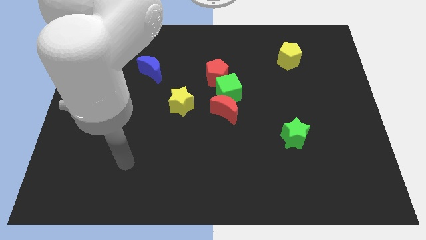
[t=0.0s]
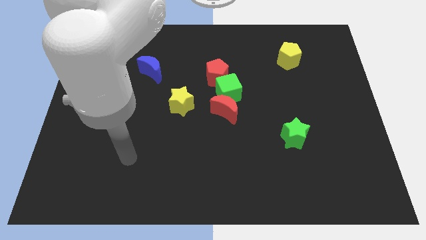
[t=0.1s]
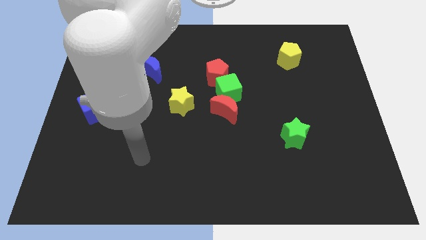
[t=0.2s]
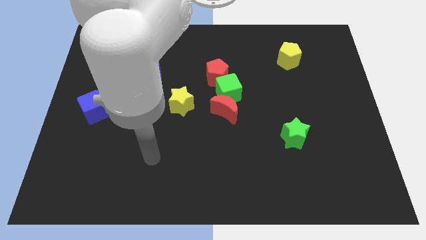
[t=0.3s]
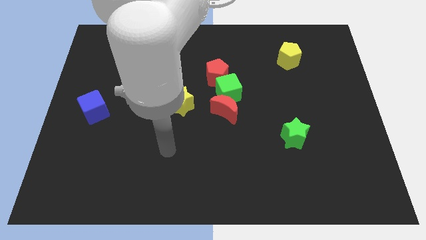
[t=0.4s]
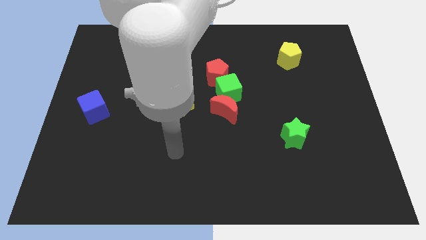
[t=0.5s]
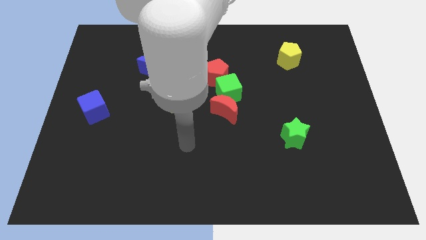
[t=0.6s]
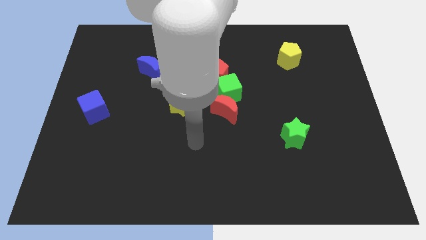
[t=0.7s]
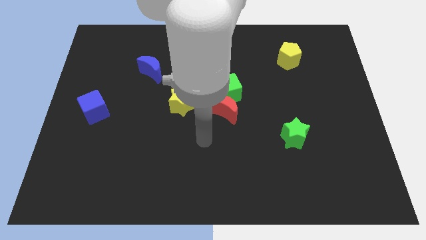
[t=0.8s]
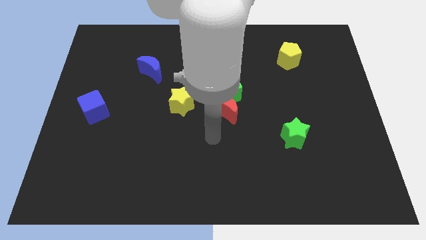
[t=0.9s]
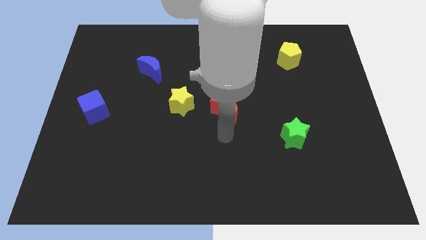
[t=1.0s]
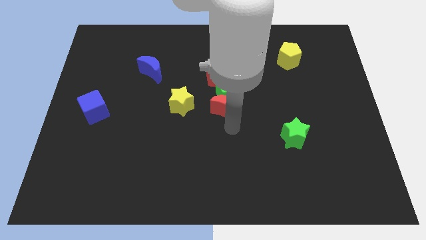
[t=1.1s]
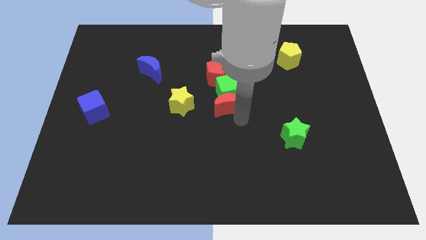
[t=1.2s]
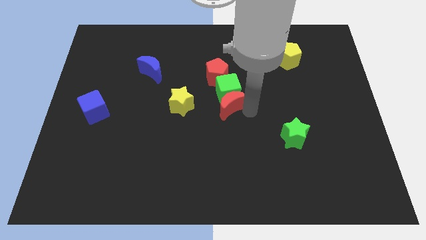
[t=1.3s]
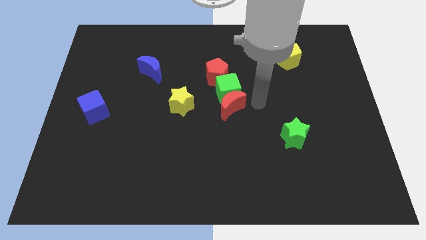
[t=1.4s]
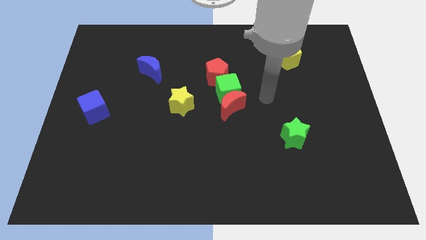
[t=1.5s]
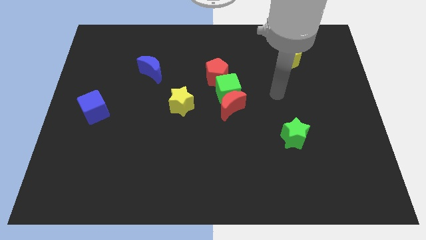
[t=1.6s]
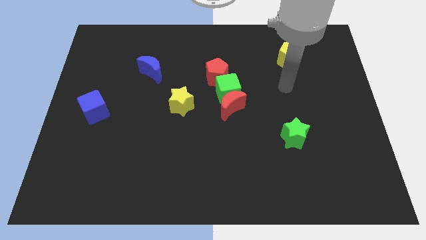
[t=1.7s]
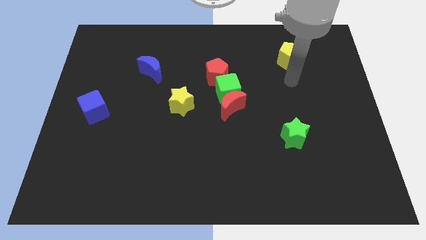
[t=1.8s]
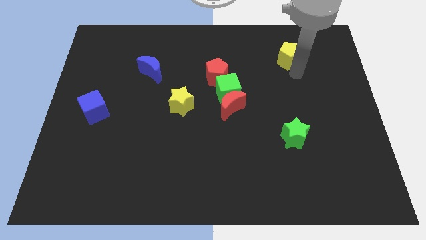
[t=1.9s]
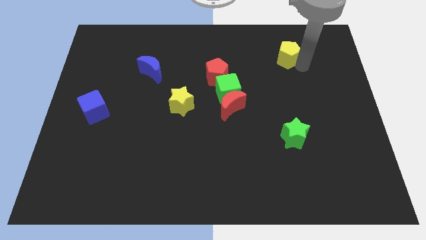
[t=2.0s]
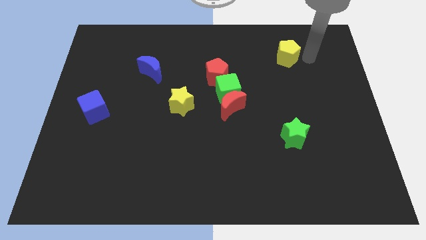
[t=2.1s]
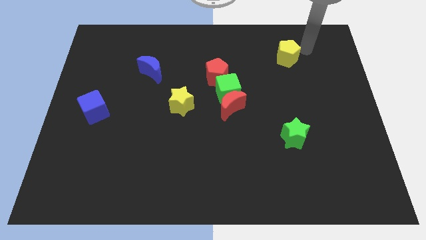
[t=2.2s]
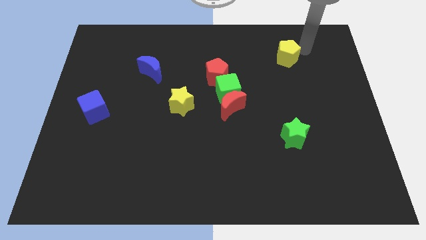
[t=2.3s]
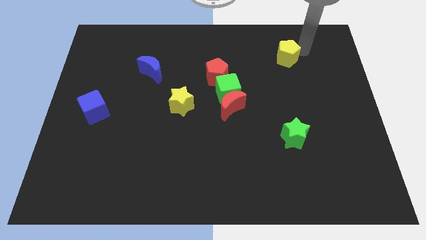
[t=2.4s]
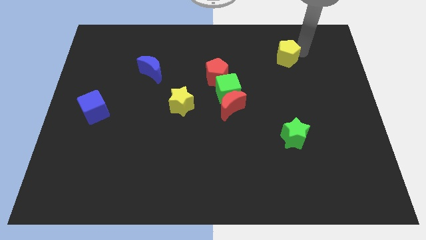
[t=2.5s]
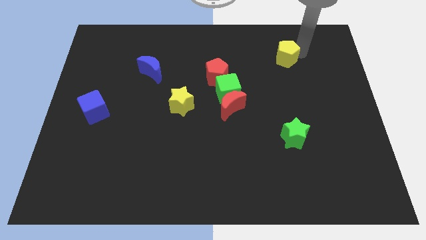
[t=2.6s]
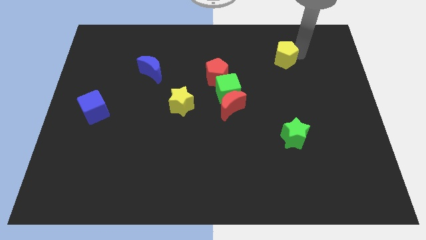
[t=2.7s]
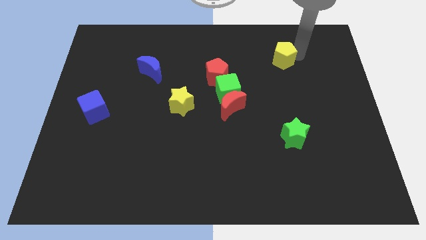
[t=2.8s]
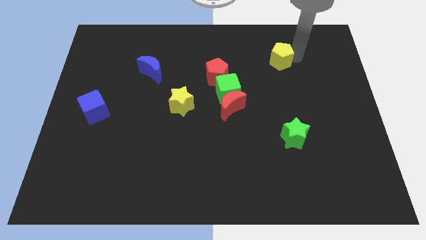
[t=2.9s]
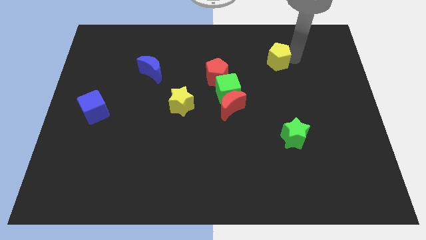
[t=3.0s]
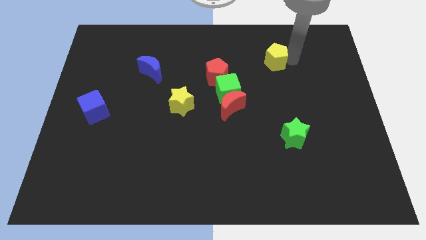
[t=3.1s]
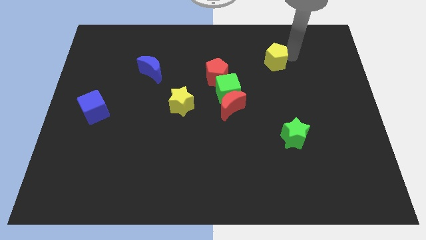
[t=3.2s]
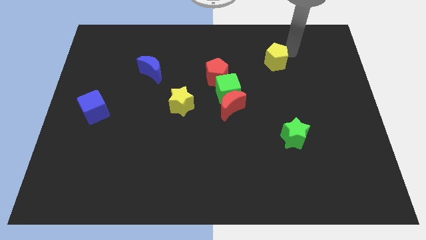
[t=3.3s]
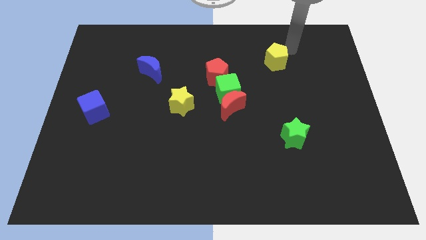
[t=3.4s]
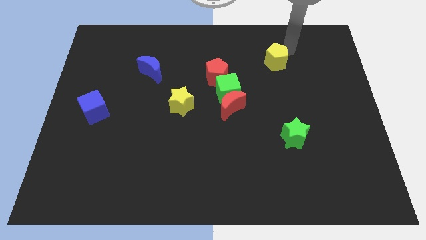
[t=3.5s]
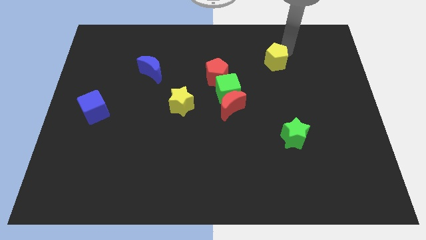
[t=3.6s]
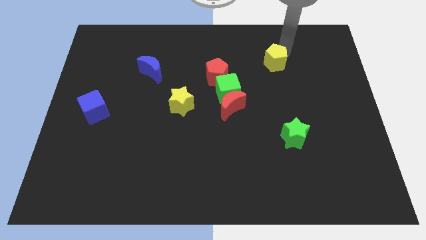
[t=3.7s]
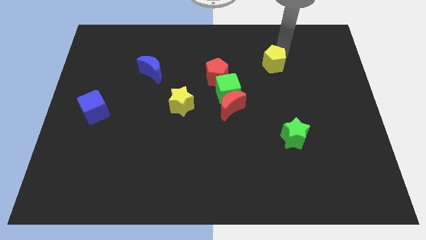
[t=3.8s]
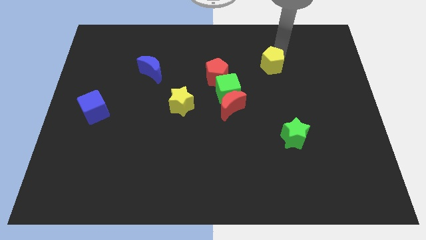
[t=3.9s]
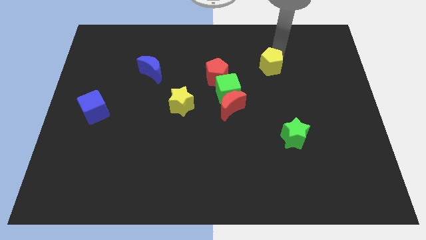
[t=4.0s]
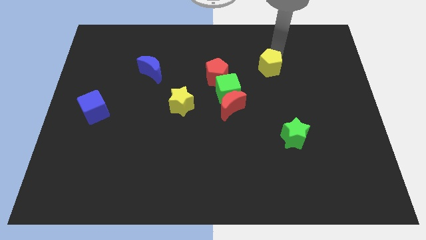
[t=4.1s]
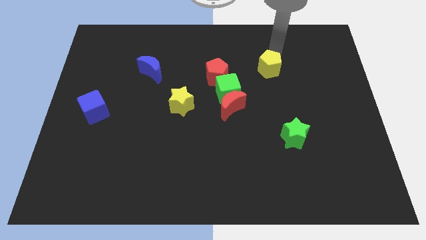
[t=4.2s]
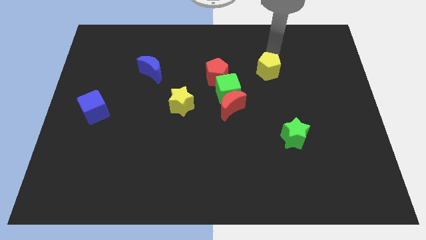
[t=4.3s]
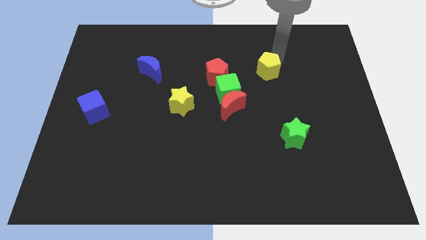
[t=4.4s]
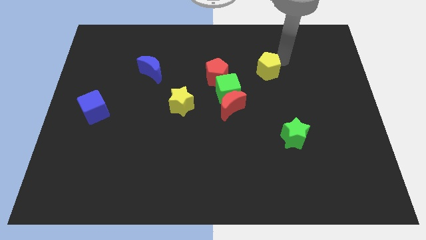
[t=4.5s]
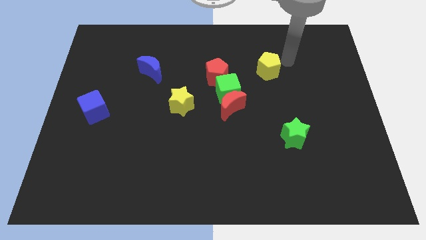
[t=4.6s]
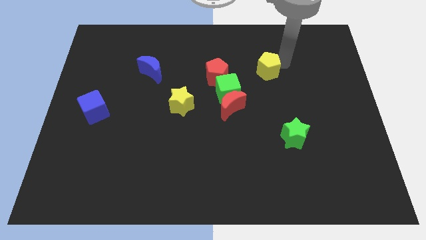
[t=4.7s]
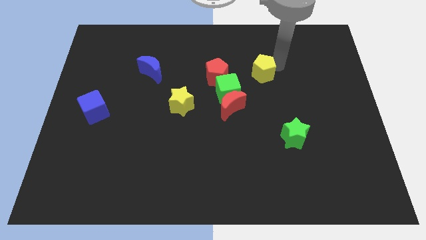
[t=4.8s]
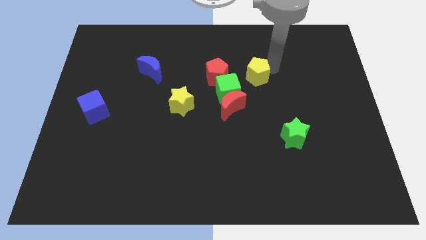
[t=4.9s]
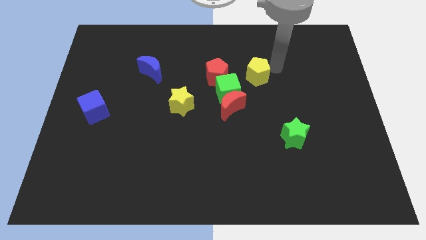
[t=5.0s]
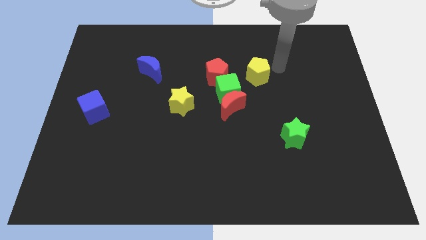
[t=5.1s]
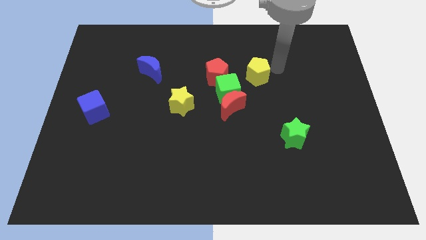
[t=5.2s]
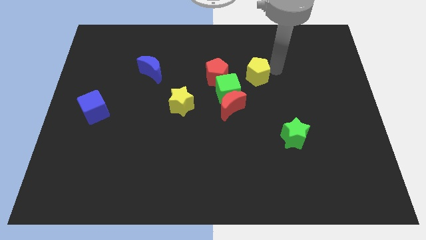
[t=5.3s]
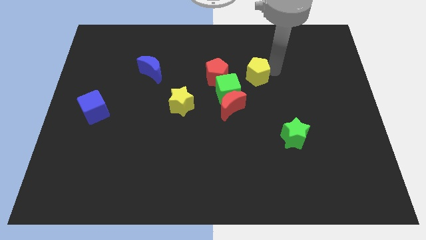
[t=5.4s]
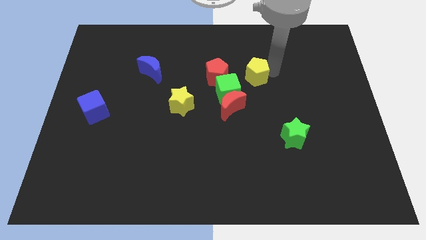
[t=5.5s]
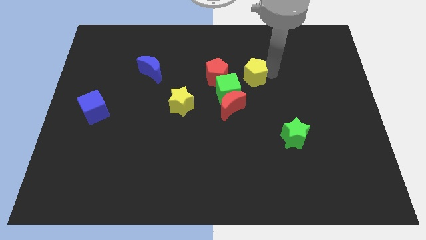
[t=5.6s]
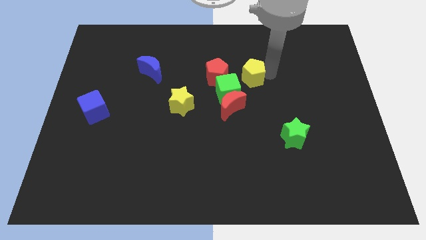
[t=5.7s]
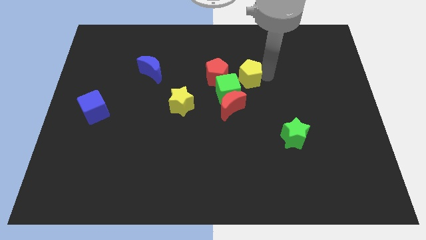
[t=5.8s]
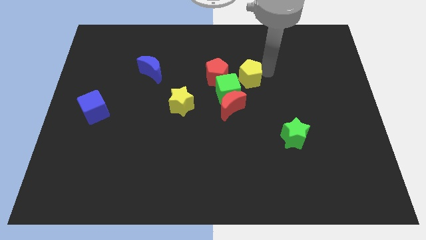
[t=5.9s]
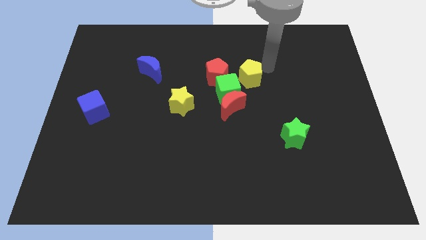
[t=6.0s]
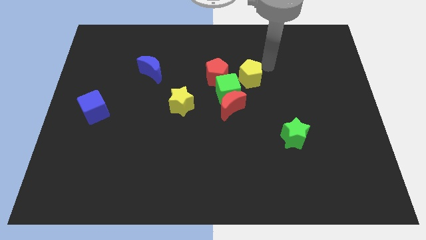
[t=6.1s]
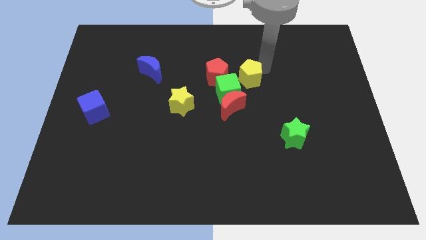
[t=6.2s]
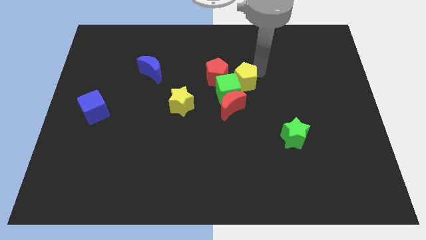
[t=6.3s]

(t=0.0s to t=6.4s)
push the yellow pentagon next to the green cube

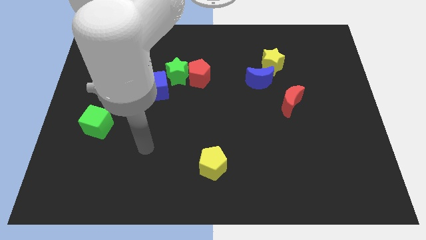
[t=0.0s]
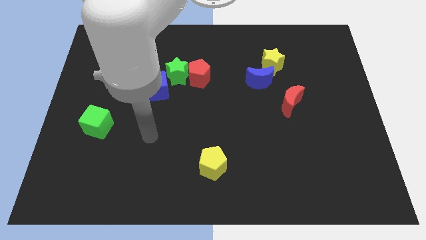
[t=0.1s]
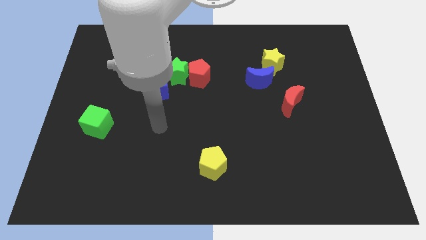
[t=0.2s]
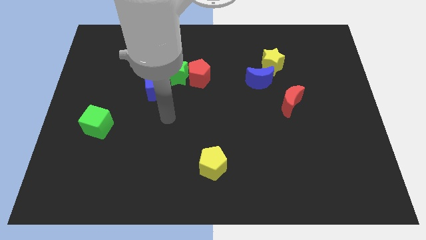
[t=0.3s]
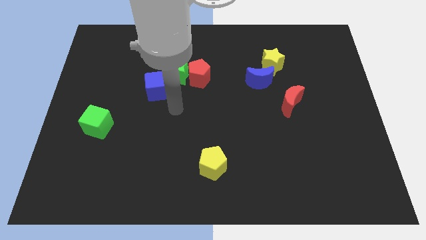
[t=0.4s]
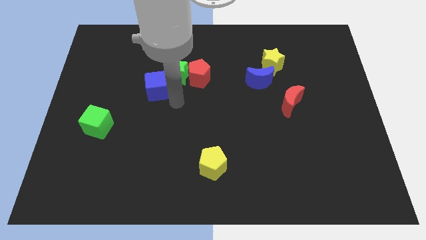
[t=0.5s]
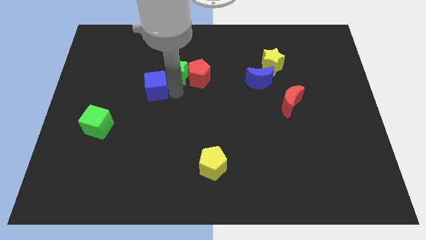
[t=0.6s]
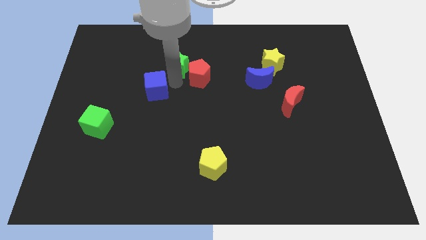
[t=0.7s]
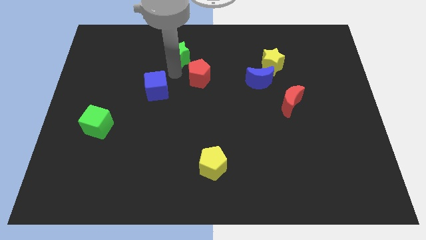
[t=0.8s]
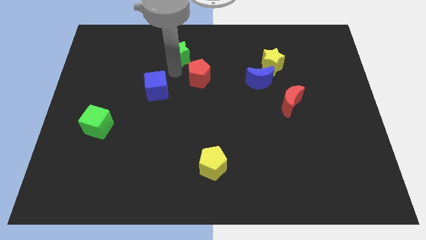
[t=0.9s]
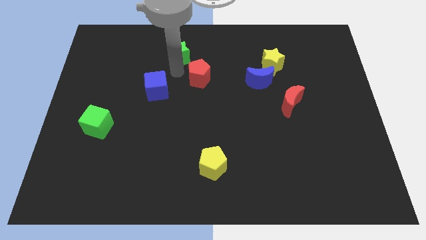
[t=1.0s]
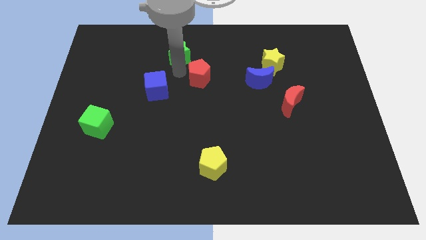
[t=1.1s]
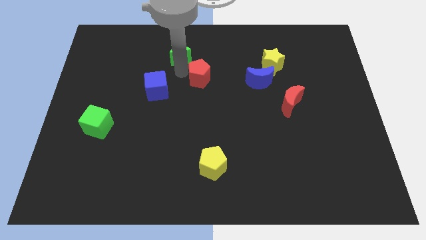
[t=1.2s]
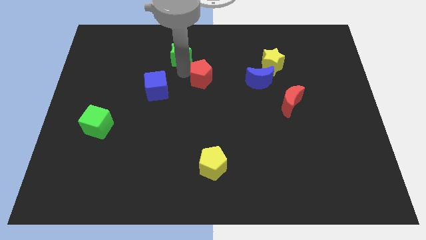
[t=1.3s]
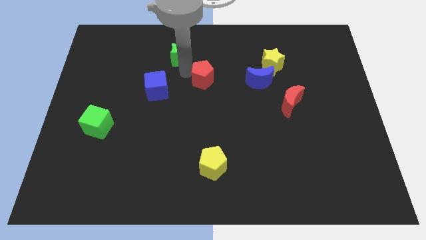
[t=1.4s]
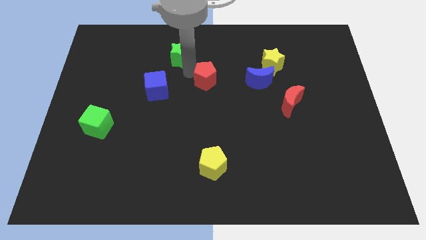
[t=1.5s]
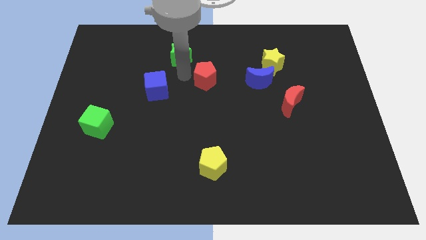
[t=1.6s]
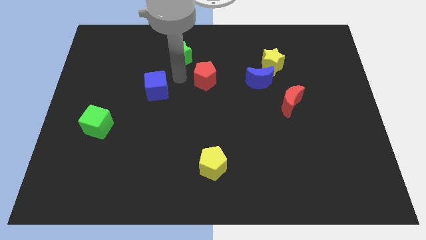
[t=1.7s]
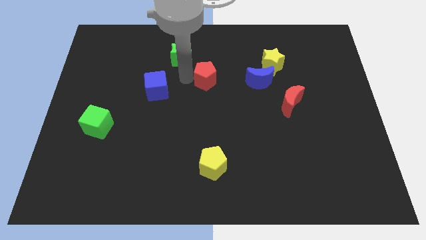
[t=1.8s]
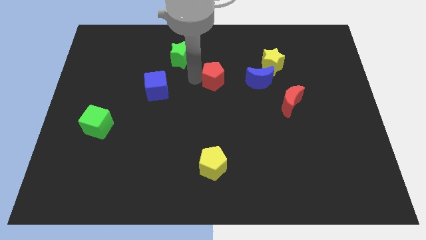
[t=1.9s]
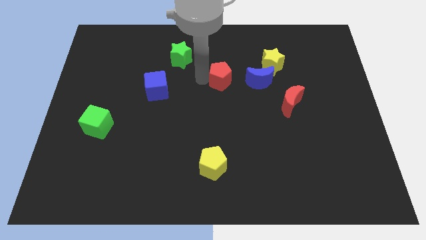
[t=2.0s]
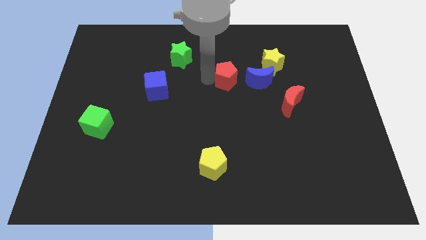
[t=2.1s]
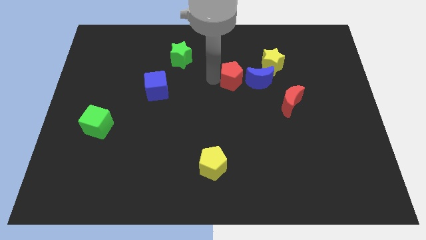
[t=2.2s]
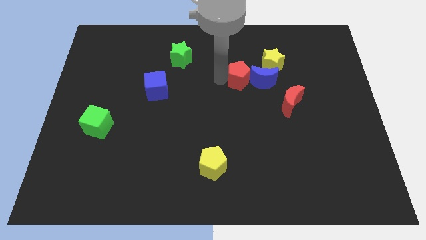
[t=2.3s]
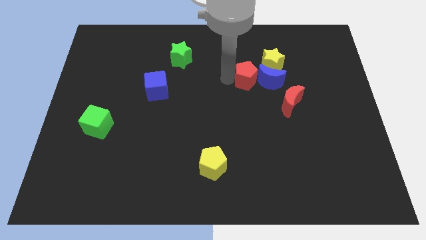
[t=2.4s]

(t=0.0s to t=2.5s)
put the red pentagon next to the blue moon
